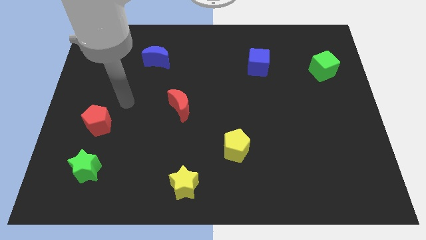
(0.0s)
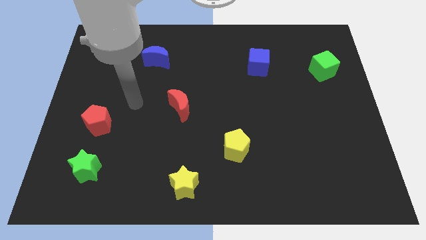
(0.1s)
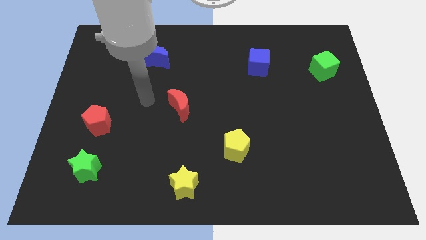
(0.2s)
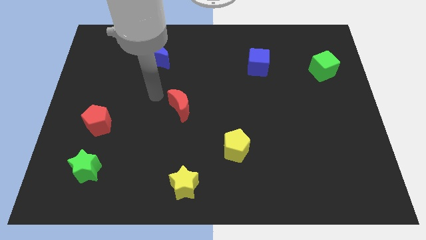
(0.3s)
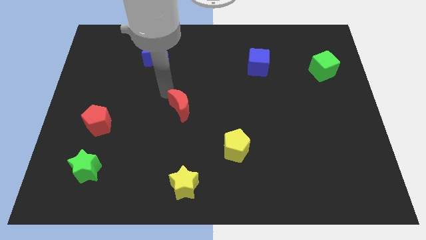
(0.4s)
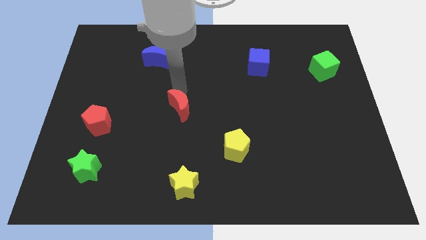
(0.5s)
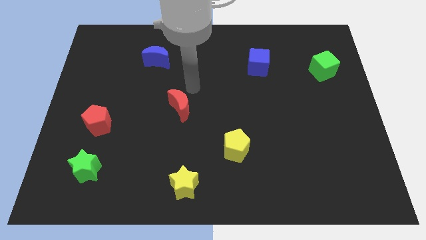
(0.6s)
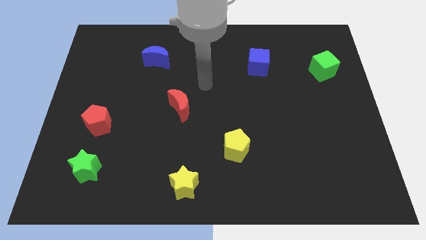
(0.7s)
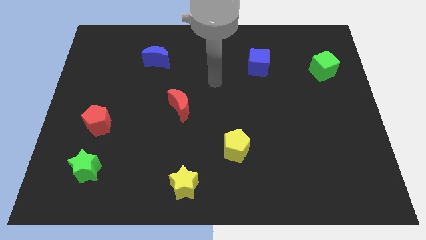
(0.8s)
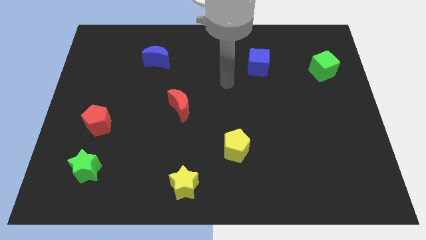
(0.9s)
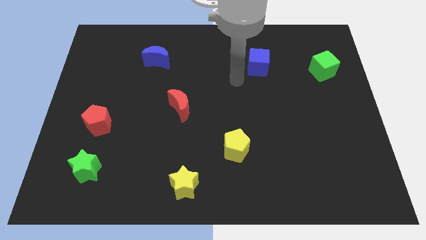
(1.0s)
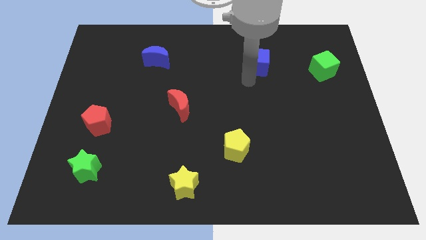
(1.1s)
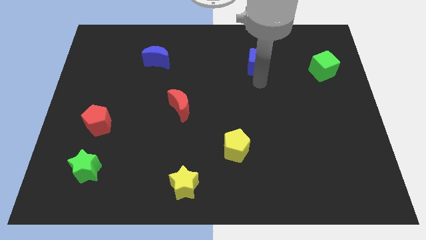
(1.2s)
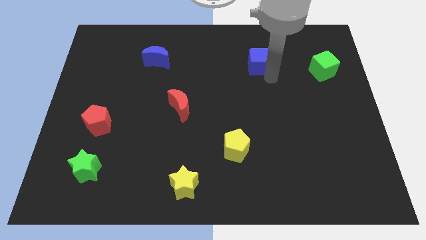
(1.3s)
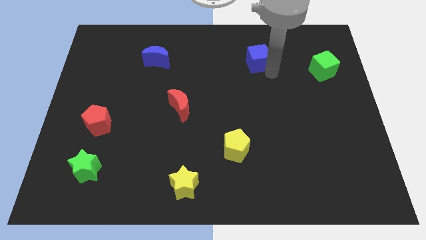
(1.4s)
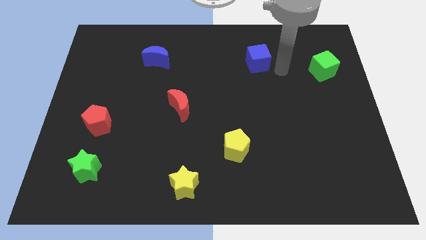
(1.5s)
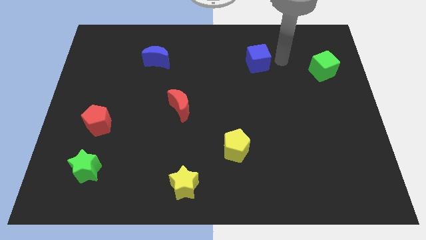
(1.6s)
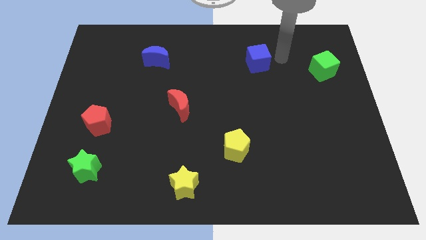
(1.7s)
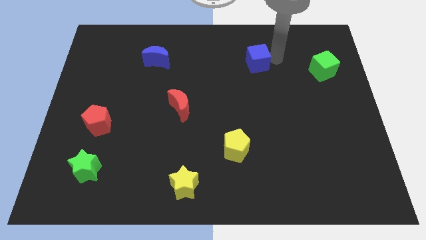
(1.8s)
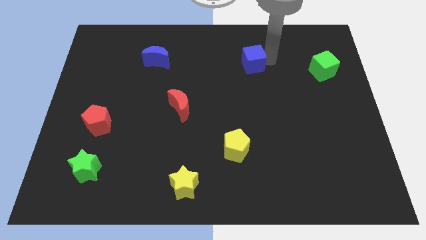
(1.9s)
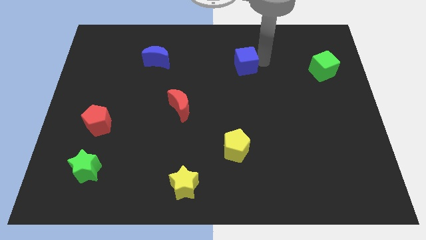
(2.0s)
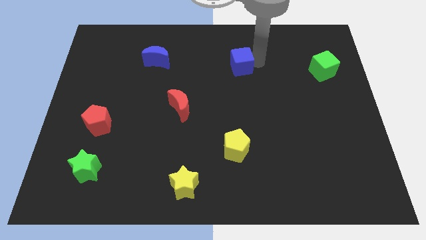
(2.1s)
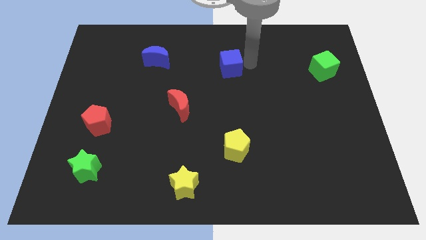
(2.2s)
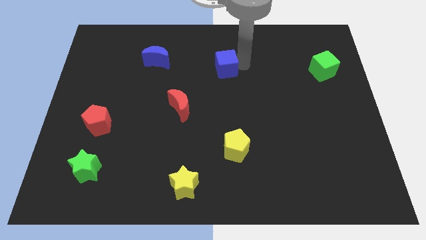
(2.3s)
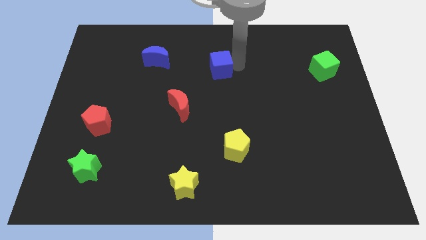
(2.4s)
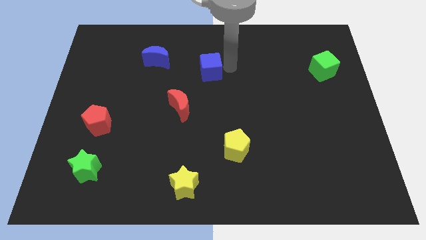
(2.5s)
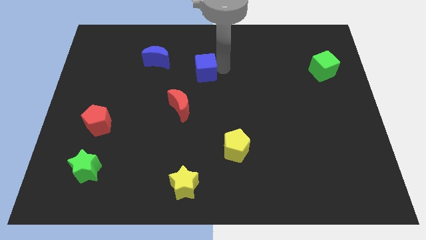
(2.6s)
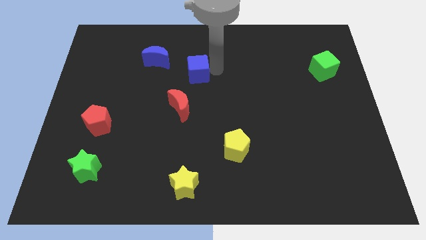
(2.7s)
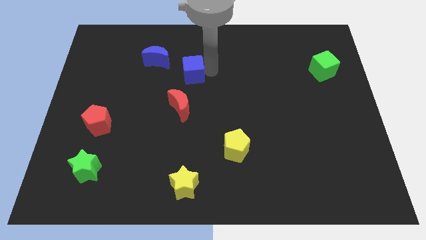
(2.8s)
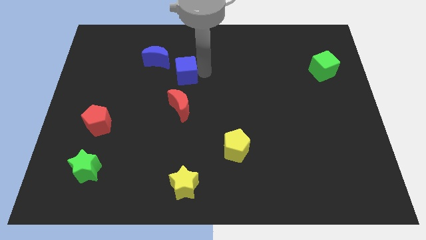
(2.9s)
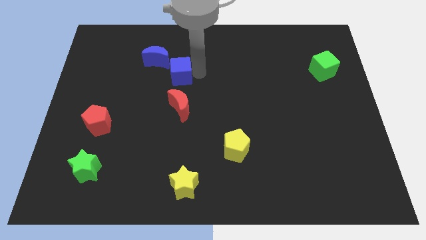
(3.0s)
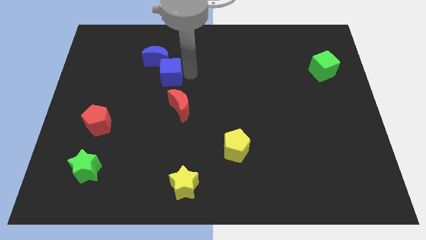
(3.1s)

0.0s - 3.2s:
push the blue cube to the left

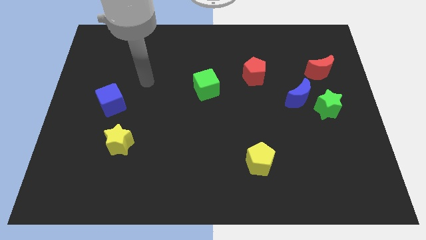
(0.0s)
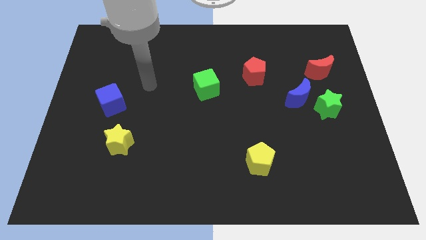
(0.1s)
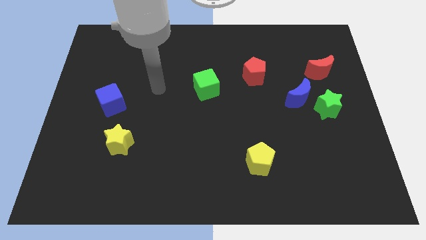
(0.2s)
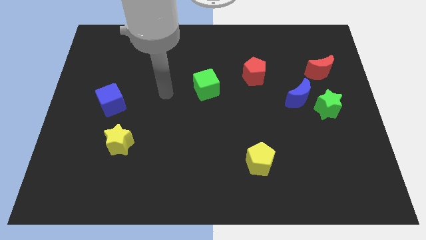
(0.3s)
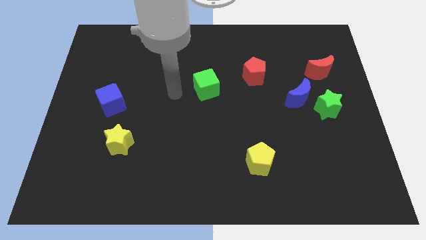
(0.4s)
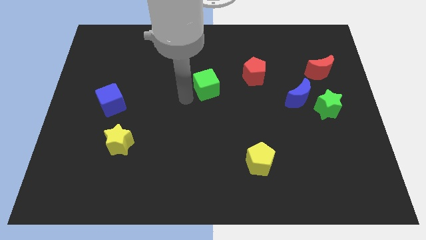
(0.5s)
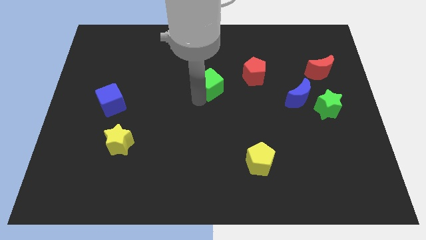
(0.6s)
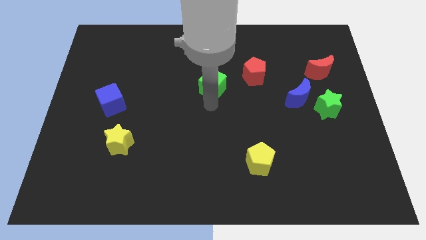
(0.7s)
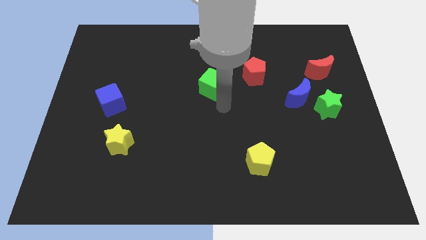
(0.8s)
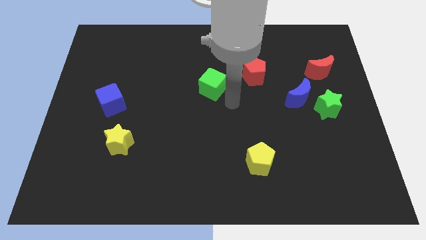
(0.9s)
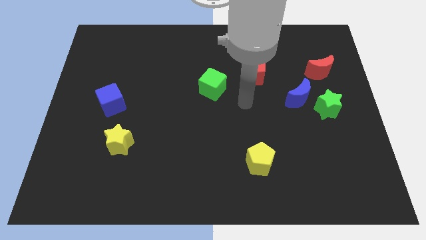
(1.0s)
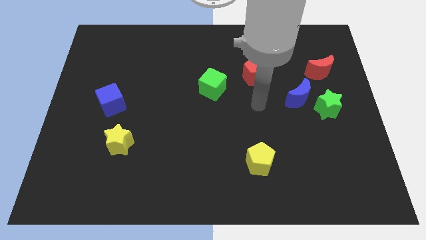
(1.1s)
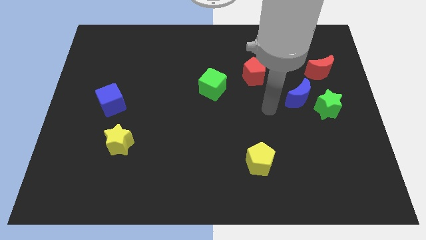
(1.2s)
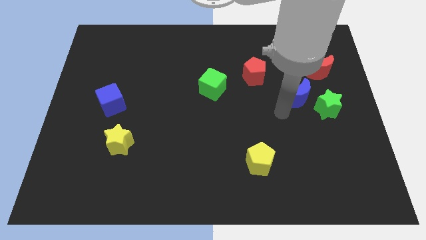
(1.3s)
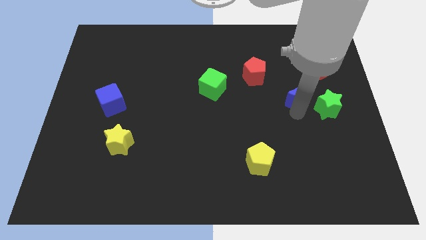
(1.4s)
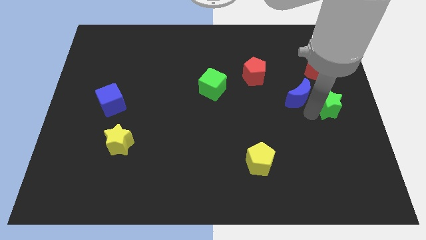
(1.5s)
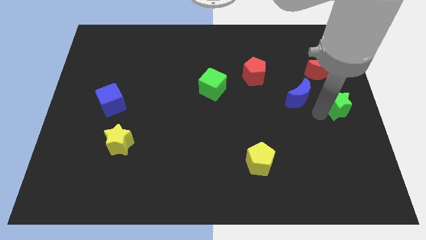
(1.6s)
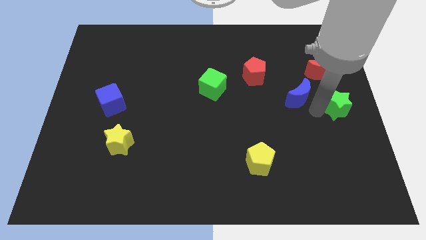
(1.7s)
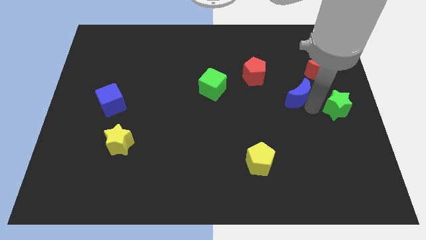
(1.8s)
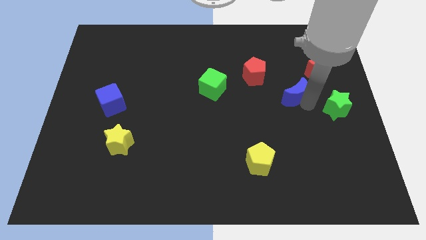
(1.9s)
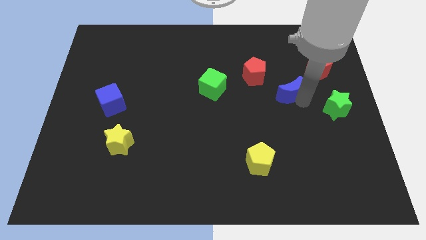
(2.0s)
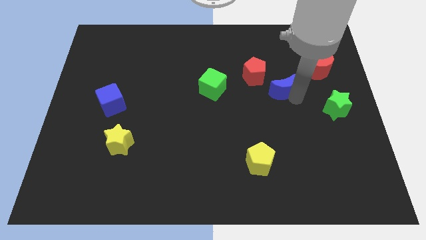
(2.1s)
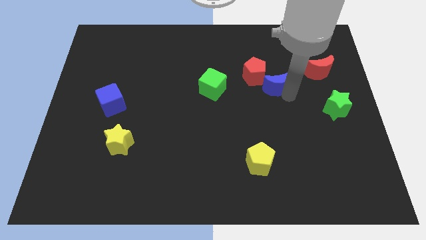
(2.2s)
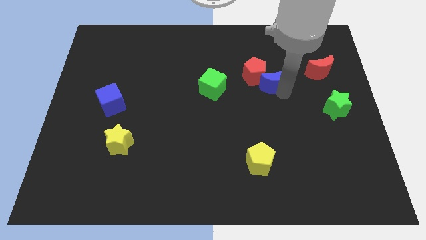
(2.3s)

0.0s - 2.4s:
slightly push the blue moon up and to the left diagonally

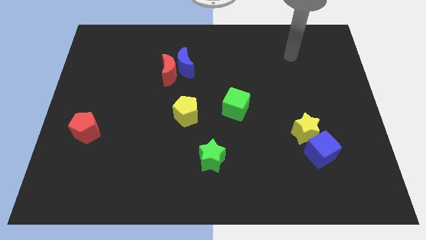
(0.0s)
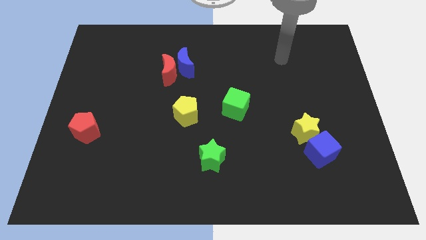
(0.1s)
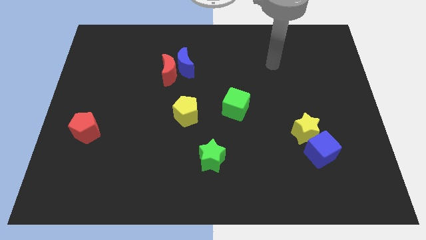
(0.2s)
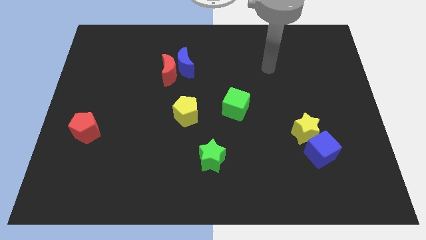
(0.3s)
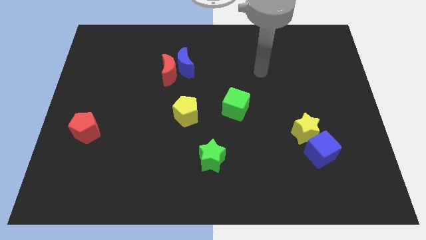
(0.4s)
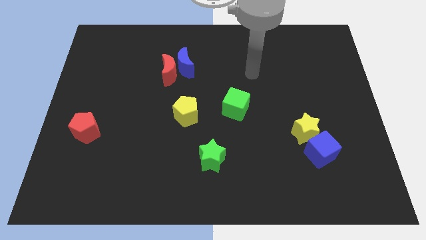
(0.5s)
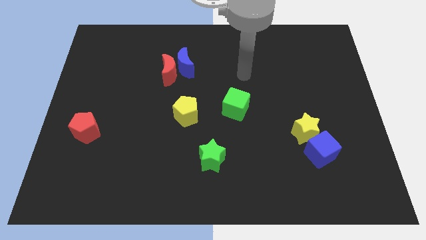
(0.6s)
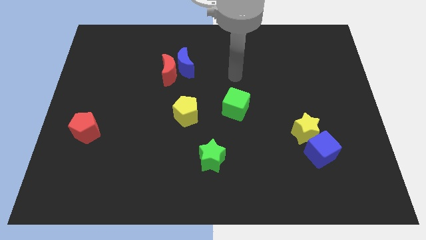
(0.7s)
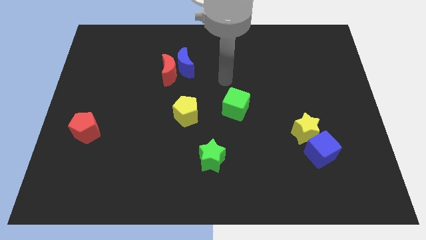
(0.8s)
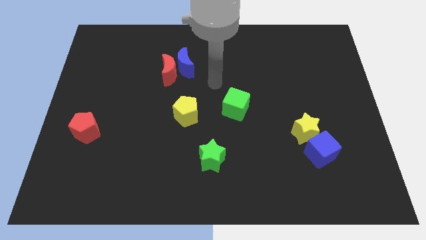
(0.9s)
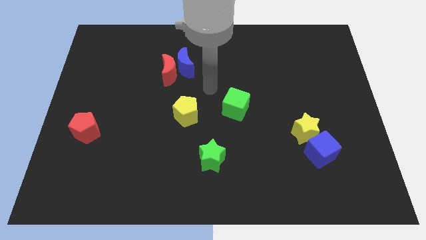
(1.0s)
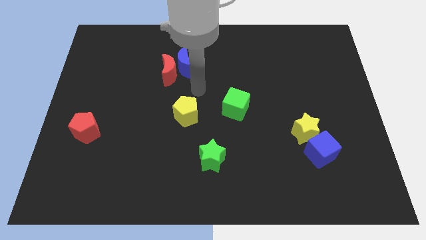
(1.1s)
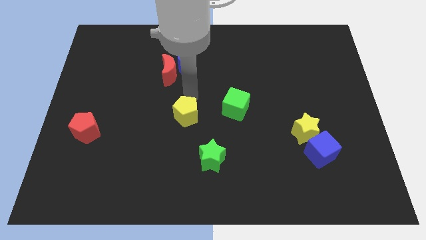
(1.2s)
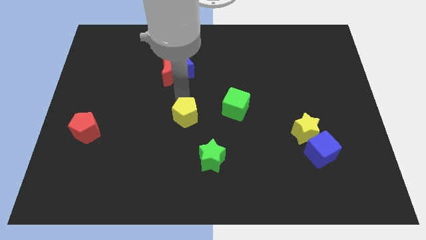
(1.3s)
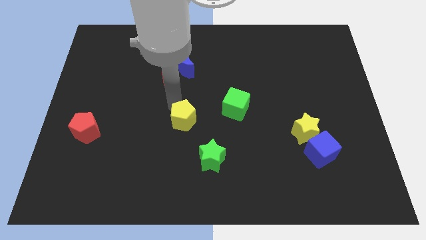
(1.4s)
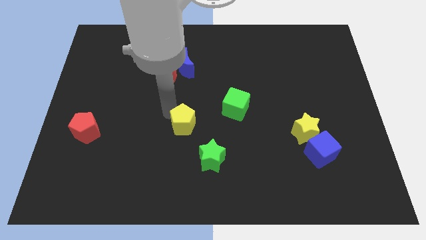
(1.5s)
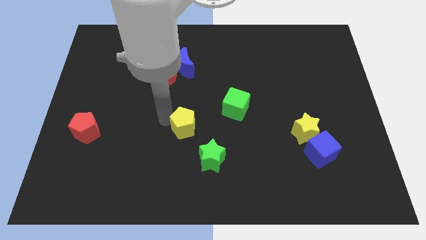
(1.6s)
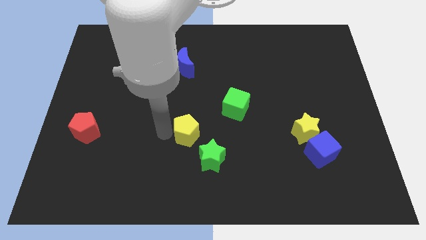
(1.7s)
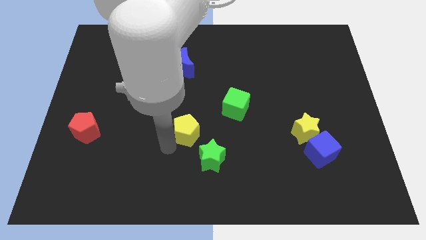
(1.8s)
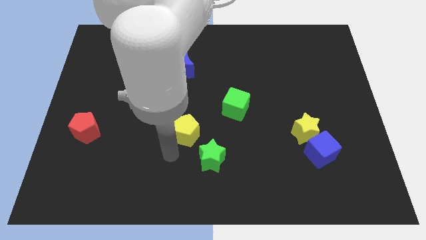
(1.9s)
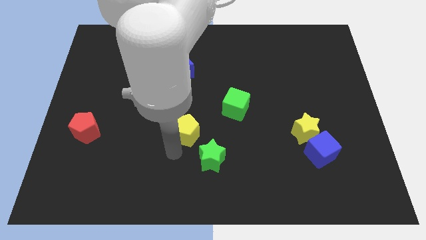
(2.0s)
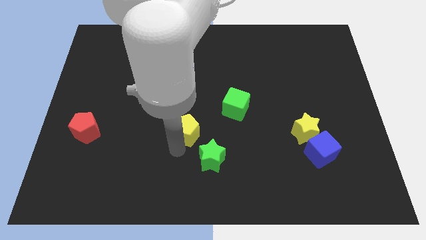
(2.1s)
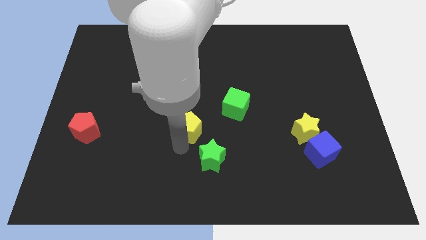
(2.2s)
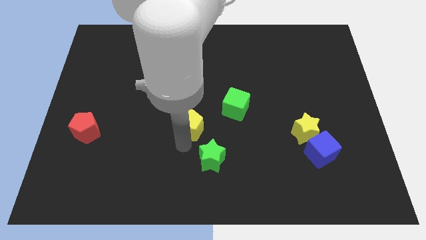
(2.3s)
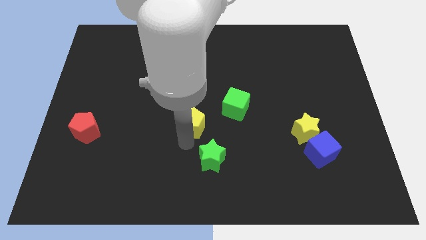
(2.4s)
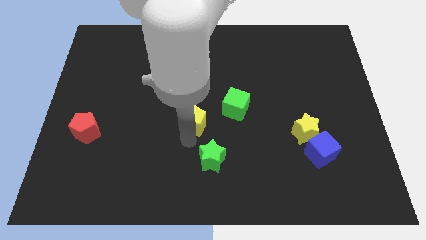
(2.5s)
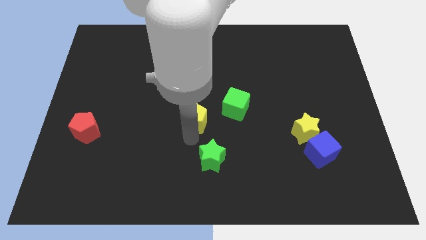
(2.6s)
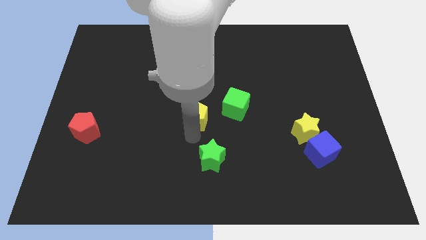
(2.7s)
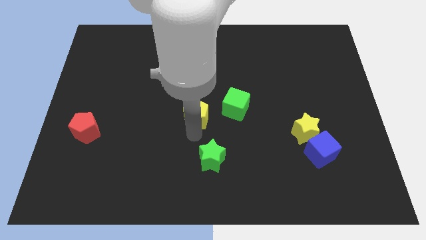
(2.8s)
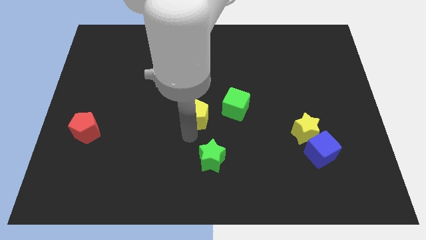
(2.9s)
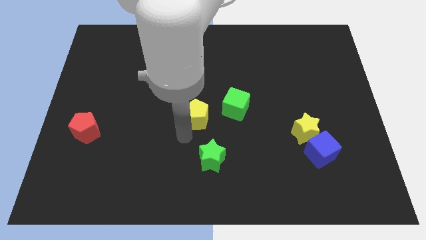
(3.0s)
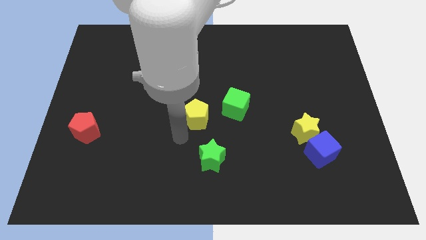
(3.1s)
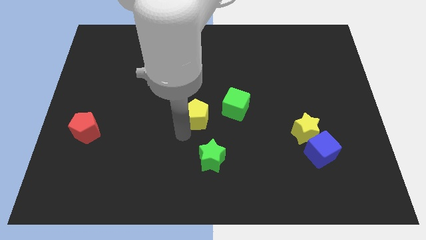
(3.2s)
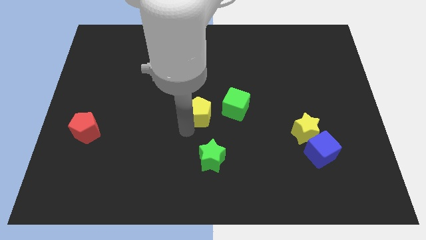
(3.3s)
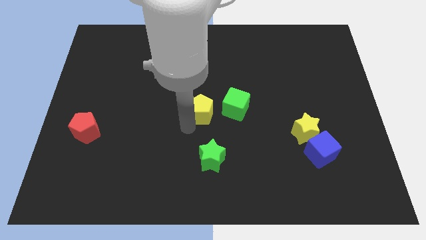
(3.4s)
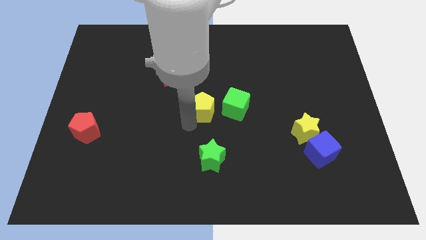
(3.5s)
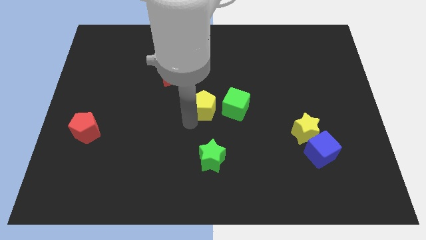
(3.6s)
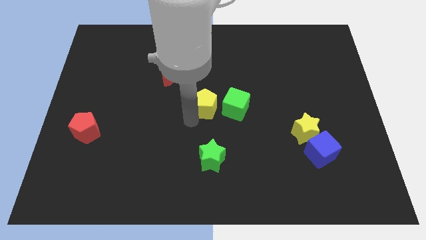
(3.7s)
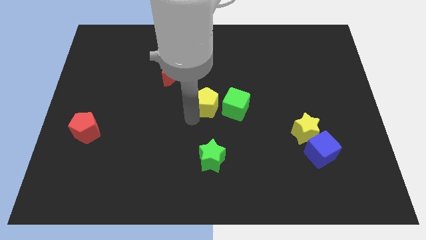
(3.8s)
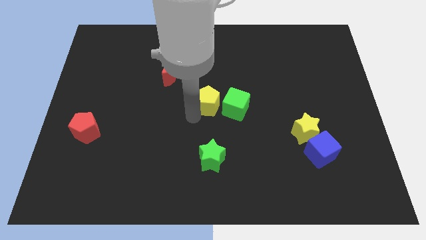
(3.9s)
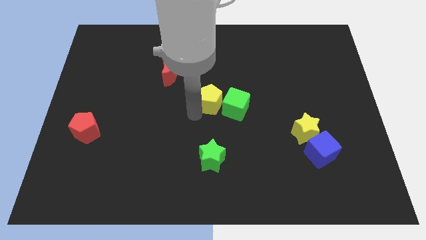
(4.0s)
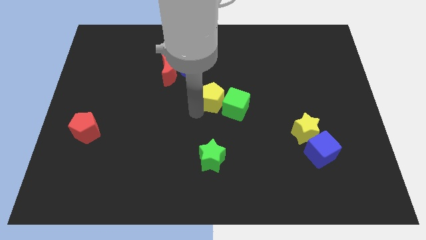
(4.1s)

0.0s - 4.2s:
move the yellow pentagon somewhat up and right diagonally
